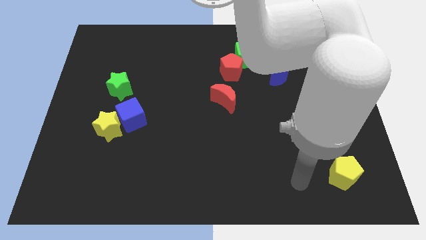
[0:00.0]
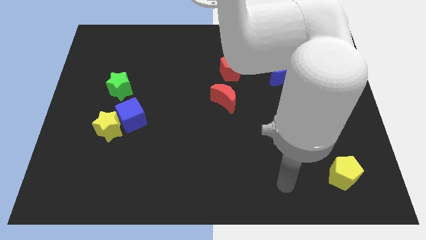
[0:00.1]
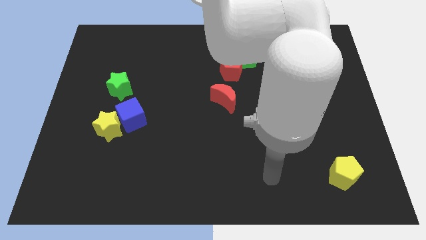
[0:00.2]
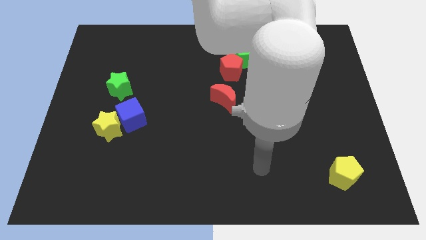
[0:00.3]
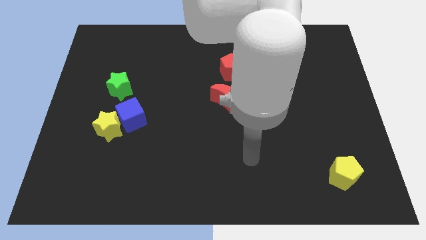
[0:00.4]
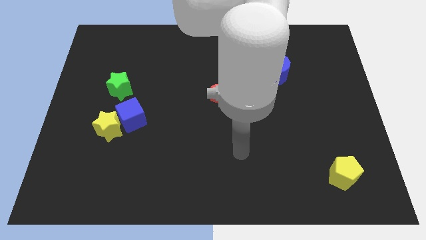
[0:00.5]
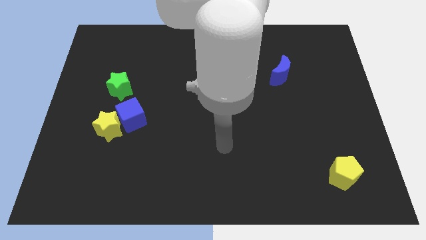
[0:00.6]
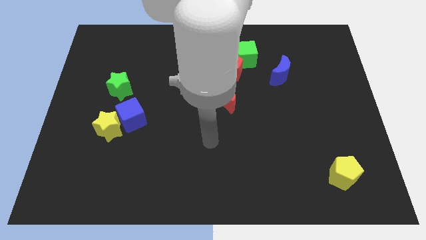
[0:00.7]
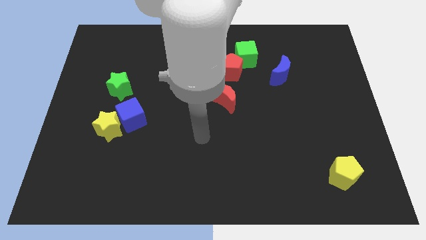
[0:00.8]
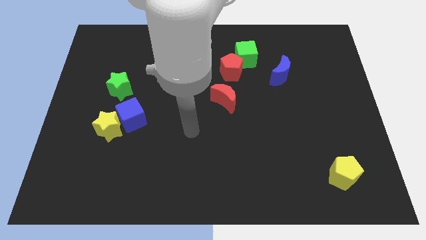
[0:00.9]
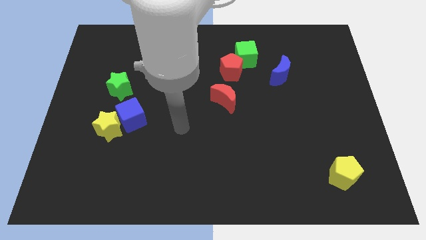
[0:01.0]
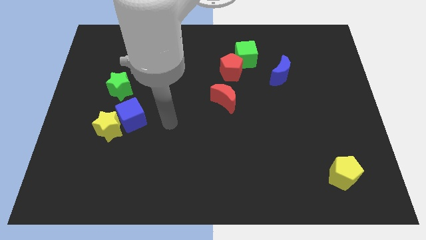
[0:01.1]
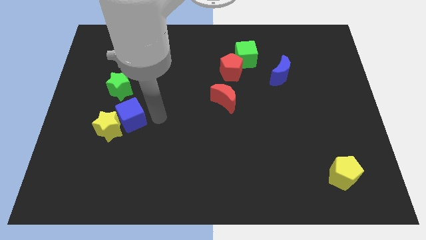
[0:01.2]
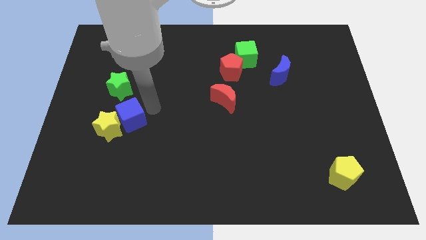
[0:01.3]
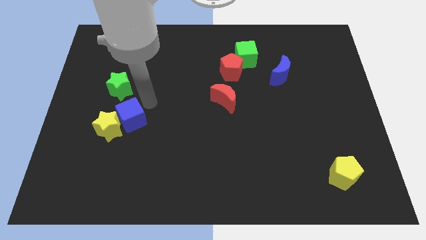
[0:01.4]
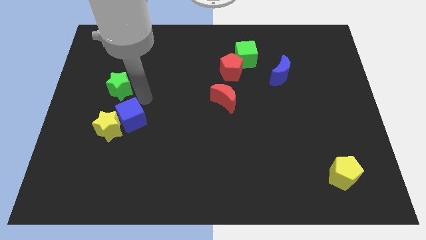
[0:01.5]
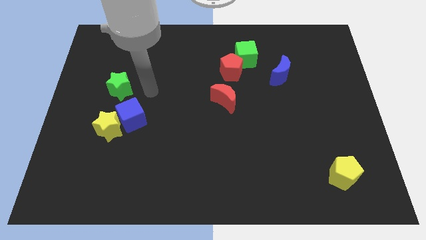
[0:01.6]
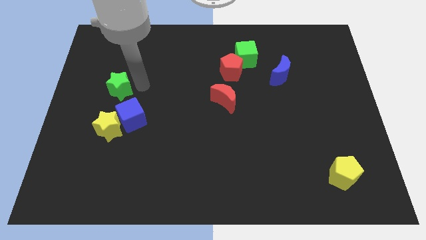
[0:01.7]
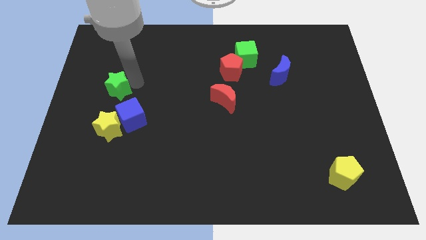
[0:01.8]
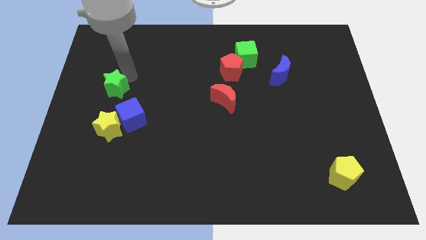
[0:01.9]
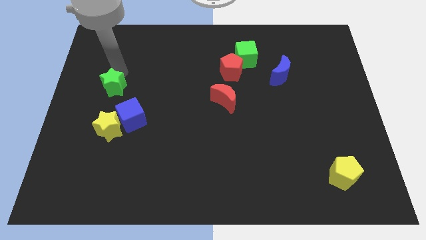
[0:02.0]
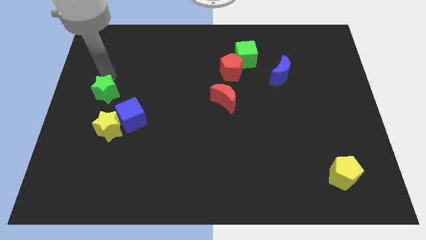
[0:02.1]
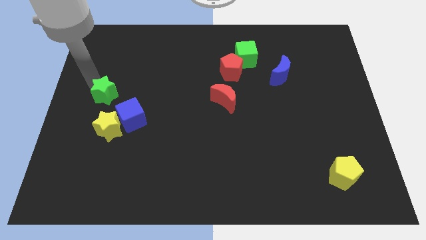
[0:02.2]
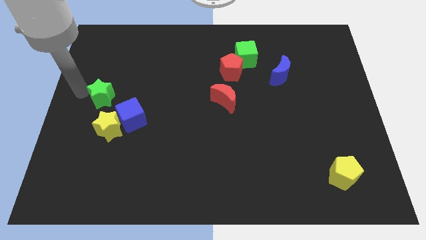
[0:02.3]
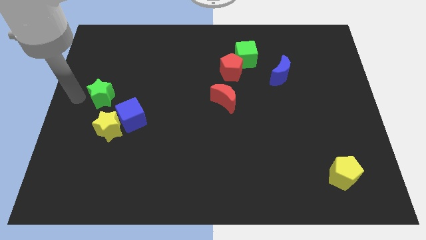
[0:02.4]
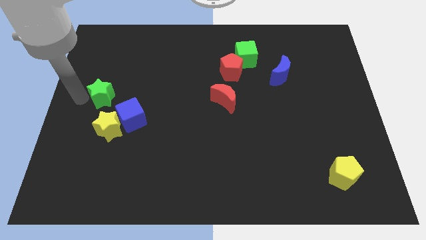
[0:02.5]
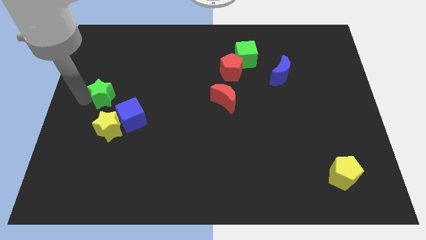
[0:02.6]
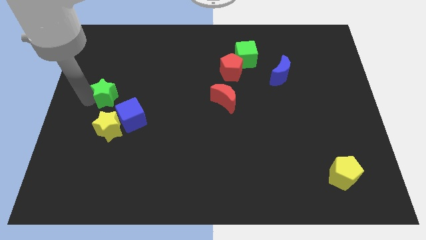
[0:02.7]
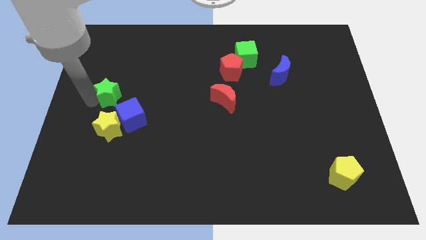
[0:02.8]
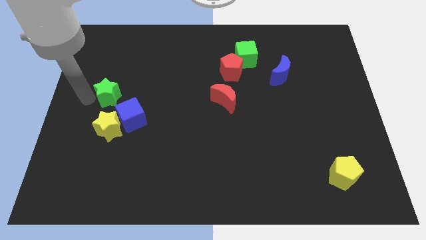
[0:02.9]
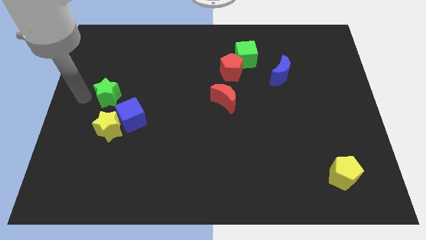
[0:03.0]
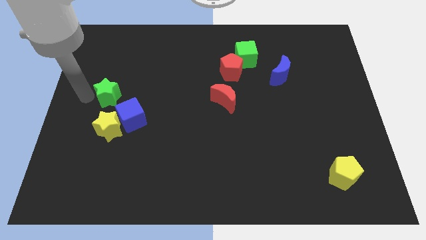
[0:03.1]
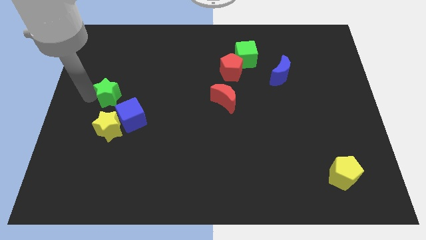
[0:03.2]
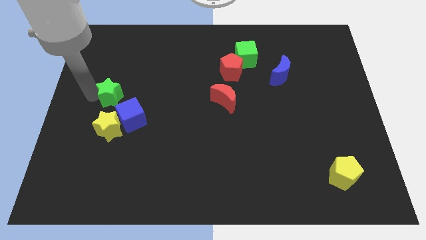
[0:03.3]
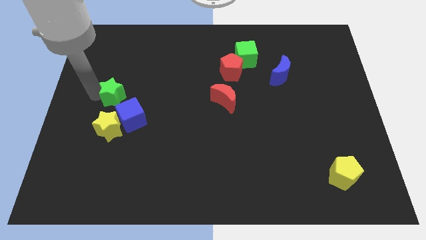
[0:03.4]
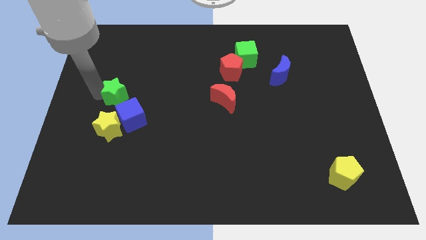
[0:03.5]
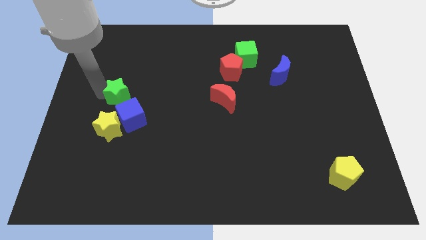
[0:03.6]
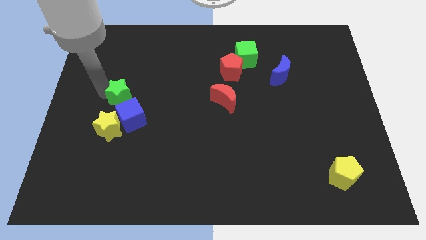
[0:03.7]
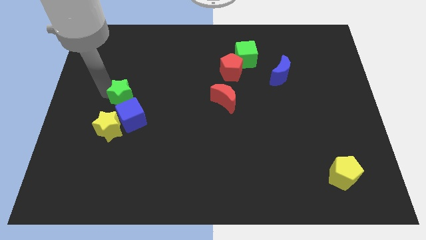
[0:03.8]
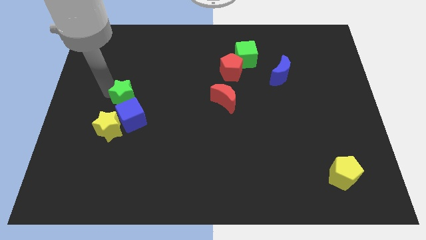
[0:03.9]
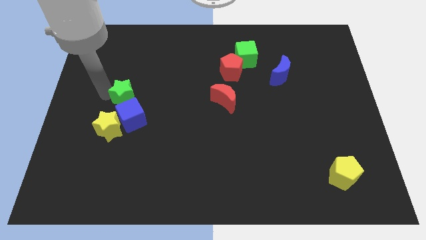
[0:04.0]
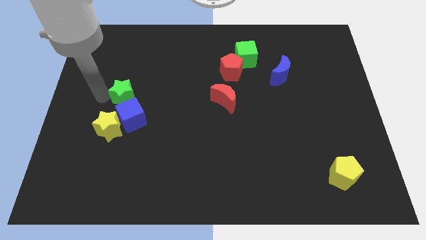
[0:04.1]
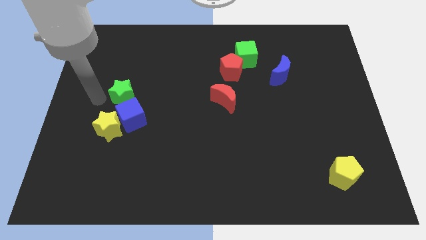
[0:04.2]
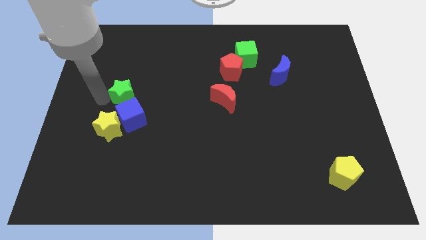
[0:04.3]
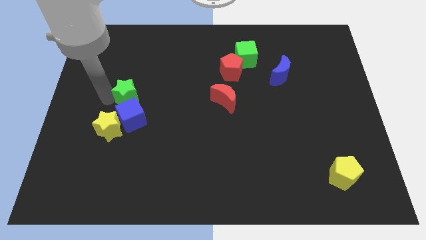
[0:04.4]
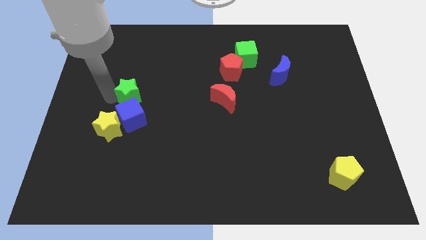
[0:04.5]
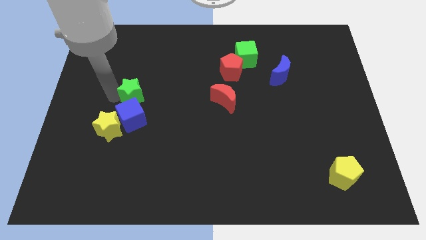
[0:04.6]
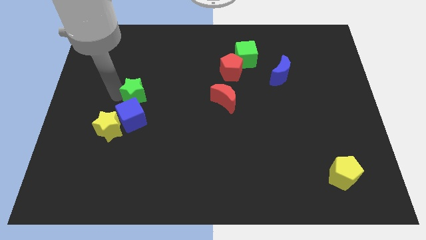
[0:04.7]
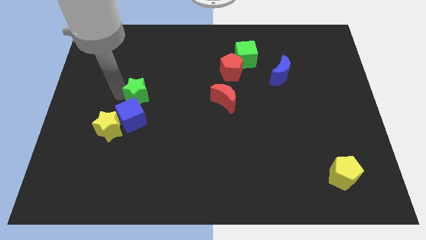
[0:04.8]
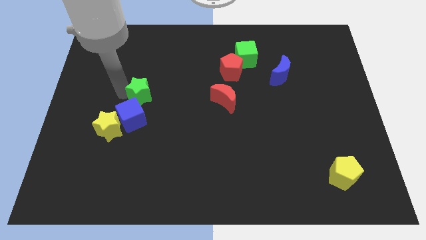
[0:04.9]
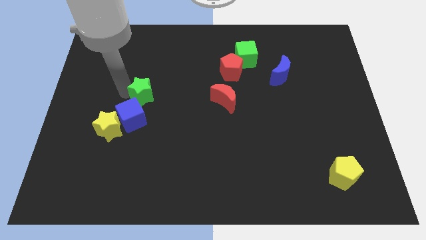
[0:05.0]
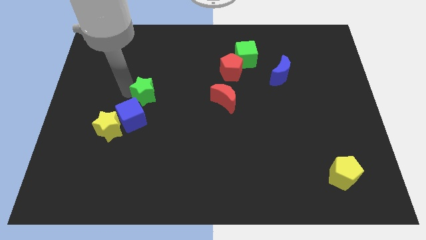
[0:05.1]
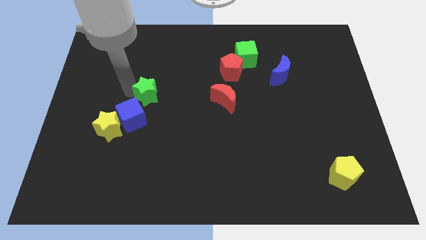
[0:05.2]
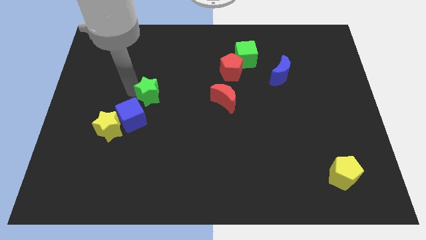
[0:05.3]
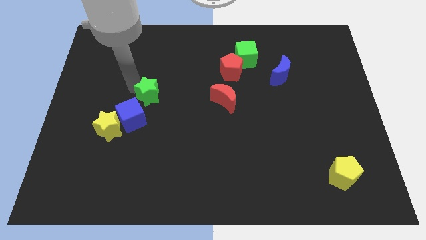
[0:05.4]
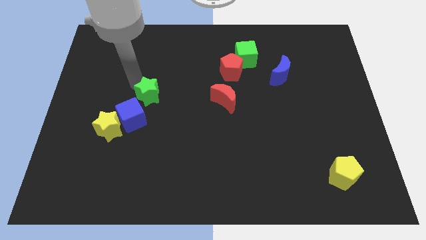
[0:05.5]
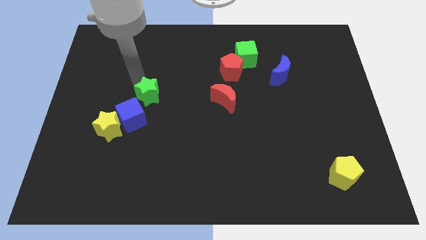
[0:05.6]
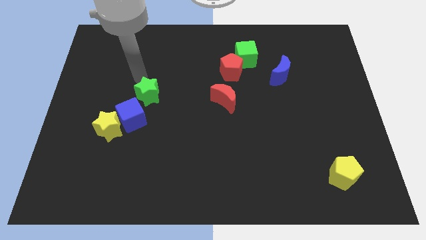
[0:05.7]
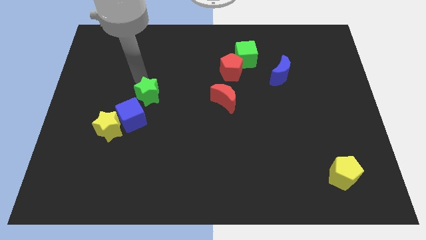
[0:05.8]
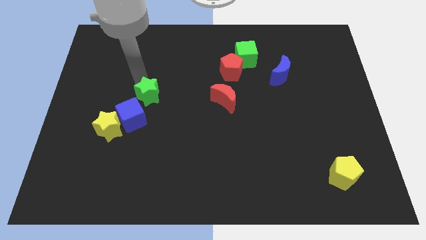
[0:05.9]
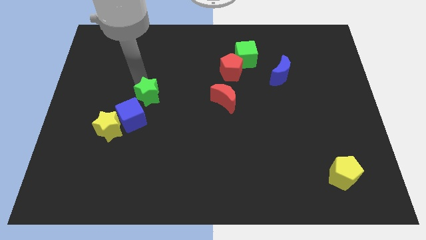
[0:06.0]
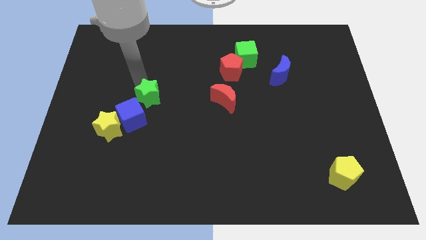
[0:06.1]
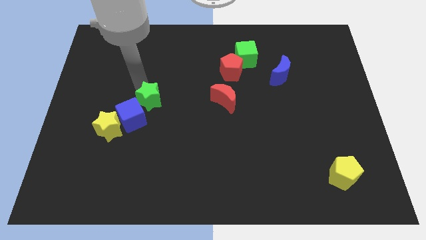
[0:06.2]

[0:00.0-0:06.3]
push the green star down and right a bit

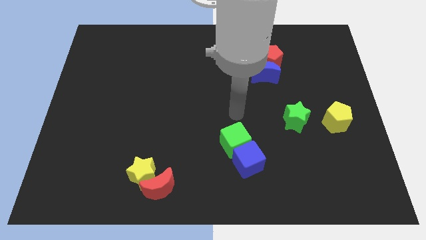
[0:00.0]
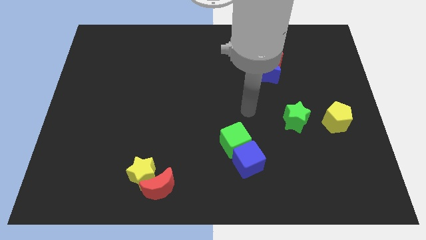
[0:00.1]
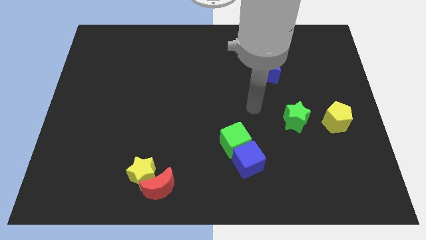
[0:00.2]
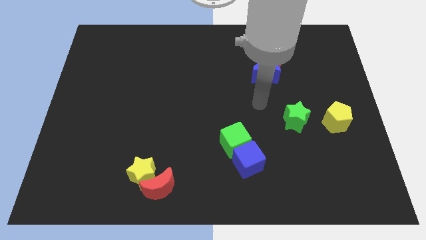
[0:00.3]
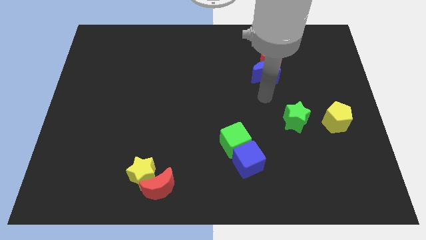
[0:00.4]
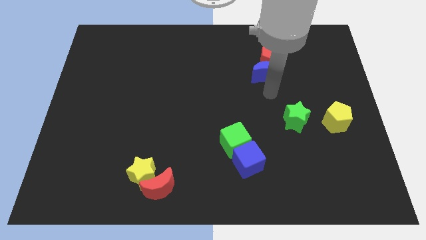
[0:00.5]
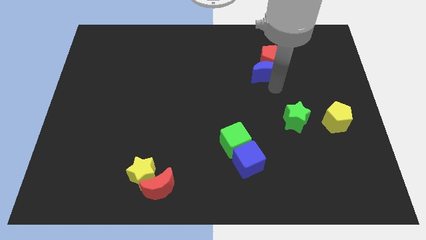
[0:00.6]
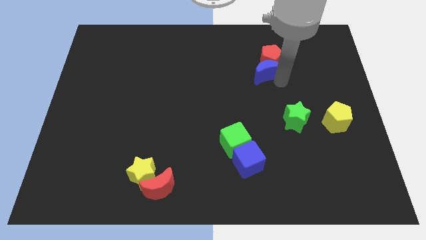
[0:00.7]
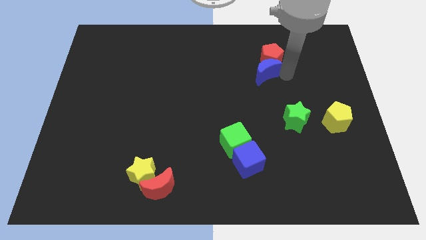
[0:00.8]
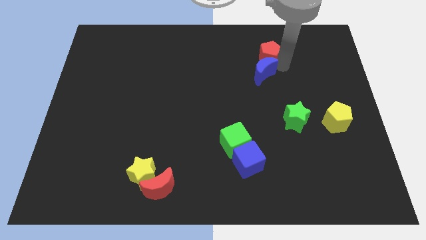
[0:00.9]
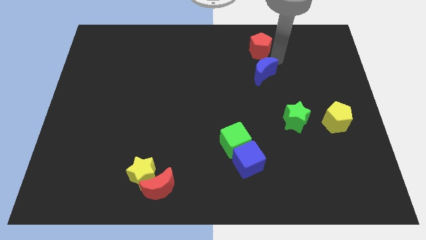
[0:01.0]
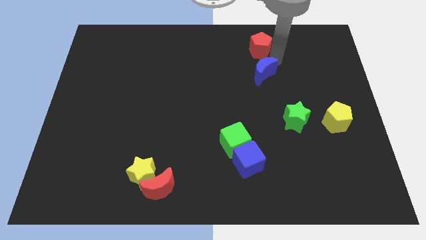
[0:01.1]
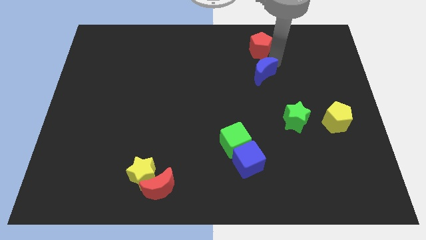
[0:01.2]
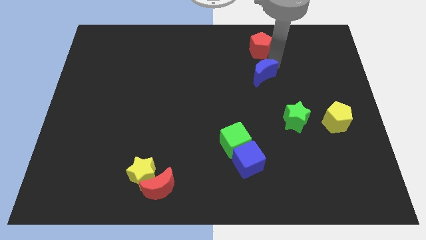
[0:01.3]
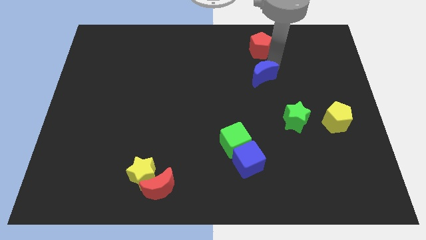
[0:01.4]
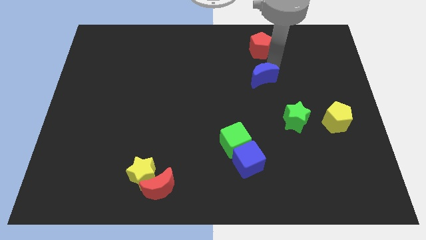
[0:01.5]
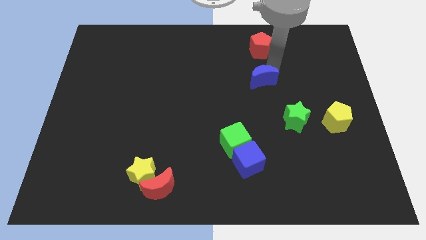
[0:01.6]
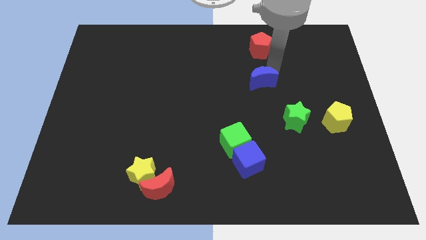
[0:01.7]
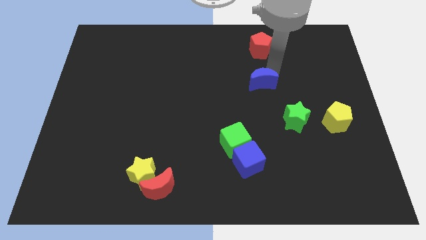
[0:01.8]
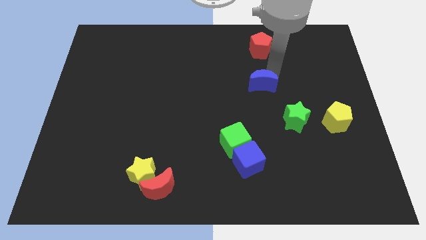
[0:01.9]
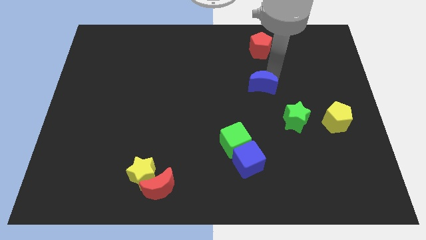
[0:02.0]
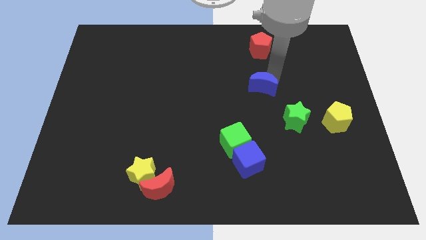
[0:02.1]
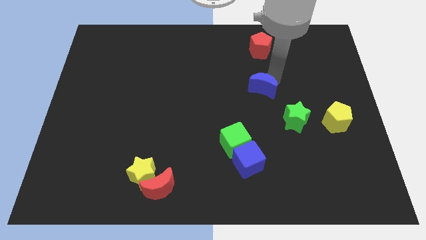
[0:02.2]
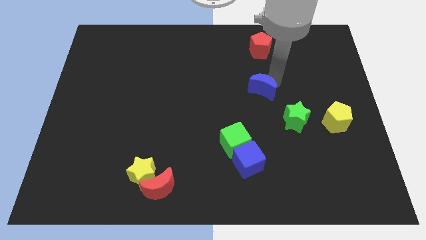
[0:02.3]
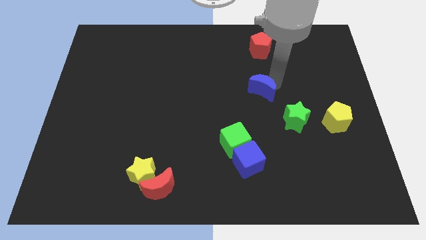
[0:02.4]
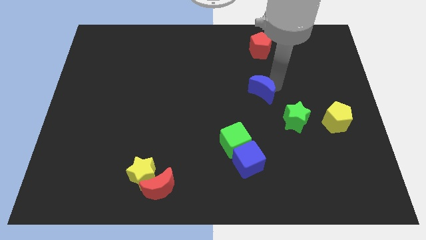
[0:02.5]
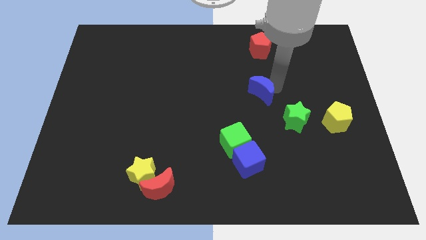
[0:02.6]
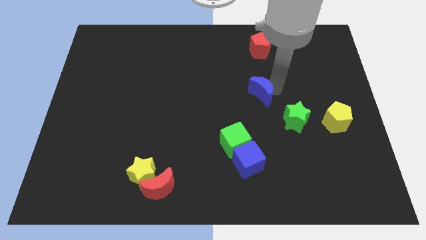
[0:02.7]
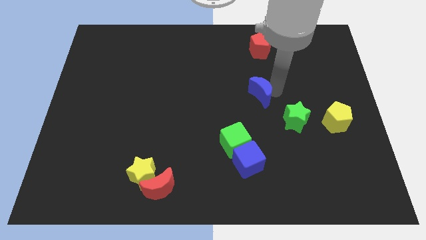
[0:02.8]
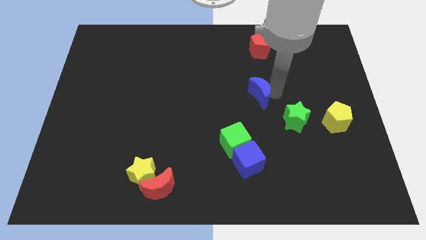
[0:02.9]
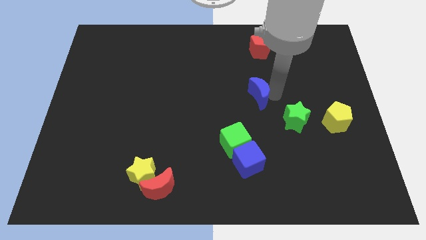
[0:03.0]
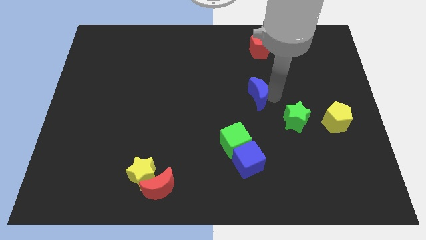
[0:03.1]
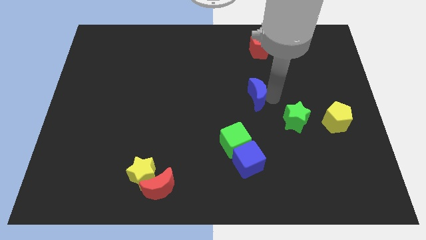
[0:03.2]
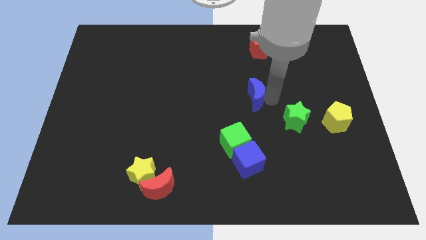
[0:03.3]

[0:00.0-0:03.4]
move the blue moon a little bit downwards and left diagonally
